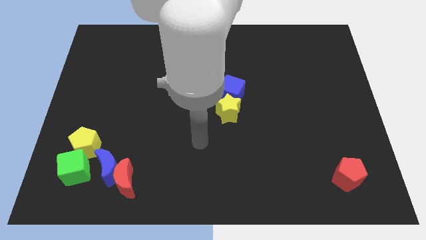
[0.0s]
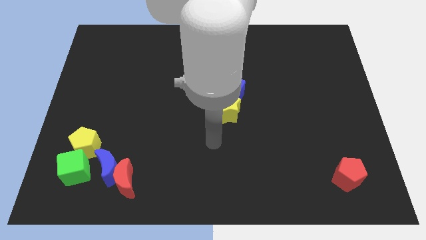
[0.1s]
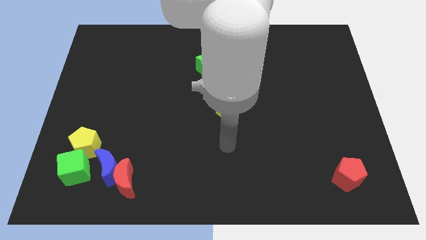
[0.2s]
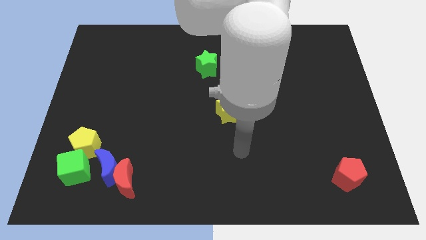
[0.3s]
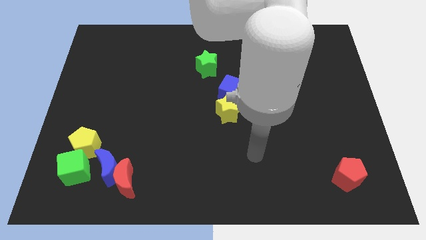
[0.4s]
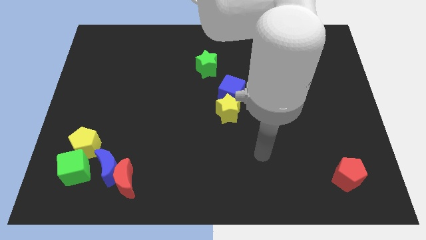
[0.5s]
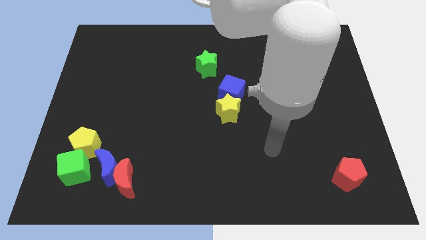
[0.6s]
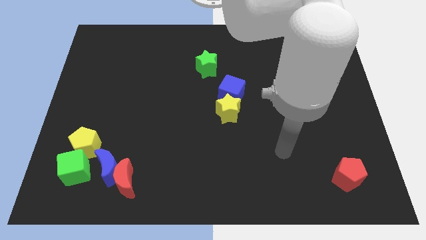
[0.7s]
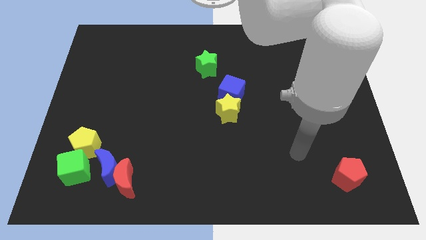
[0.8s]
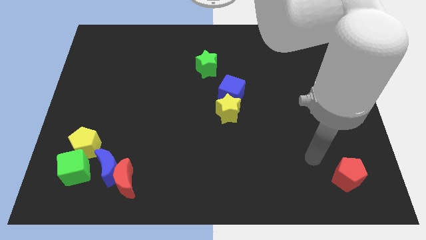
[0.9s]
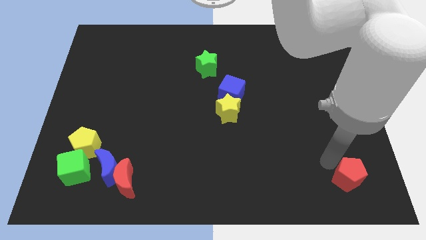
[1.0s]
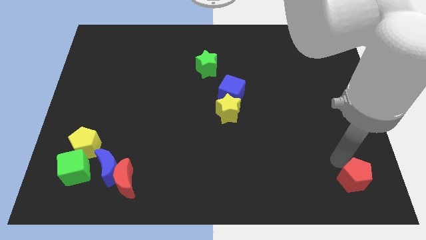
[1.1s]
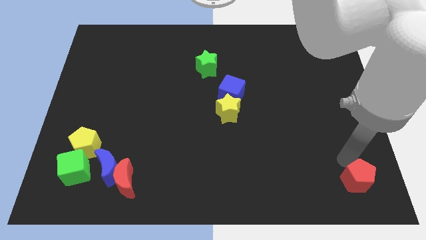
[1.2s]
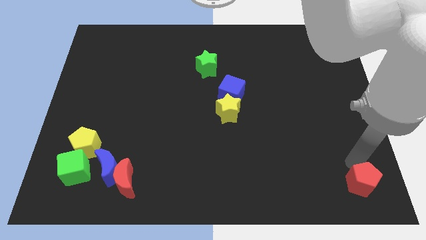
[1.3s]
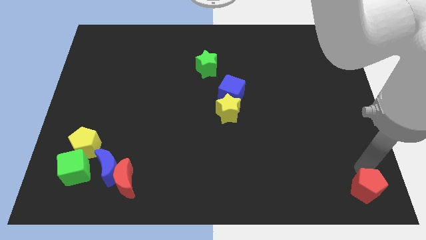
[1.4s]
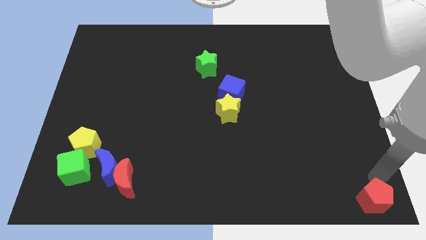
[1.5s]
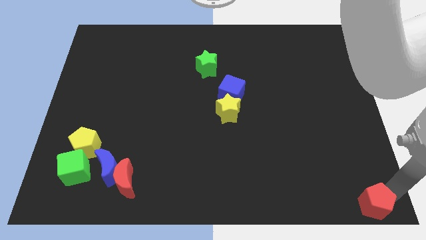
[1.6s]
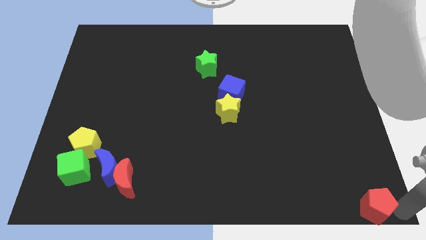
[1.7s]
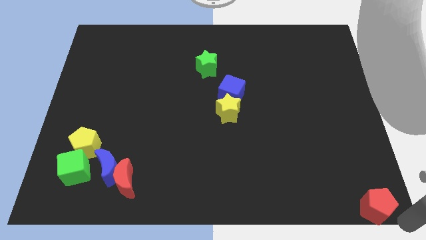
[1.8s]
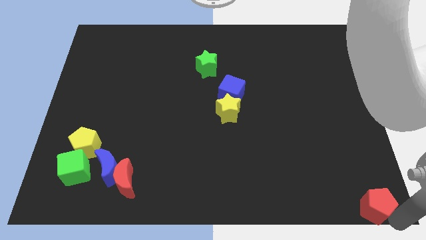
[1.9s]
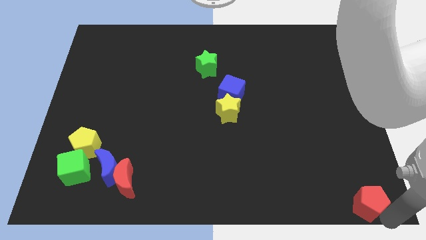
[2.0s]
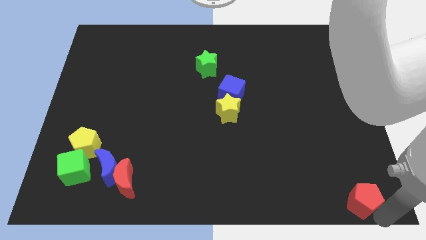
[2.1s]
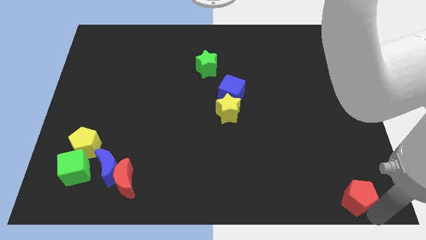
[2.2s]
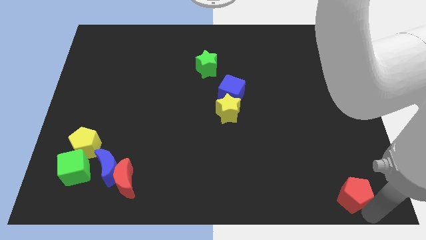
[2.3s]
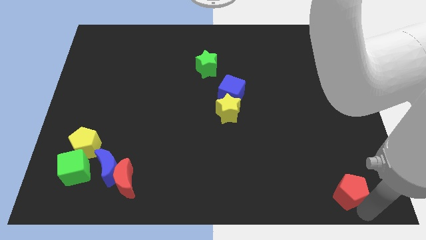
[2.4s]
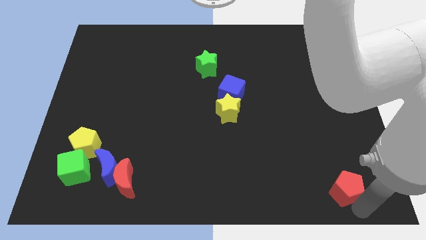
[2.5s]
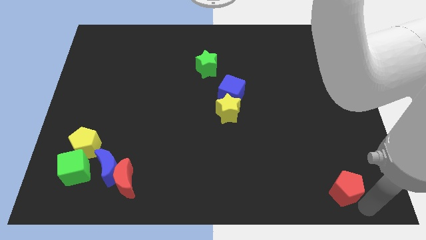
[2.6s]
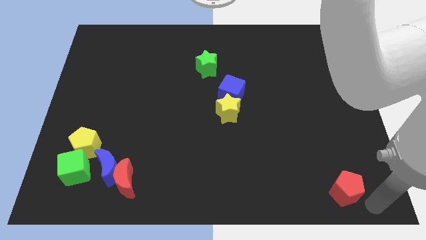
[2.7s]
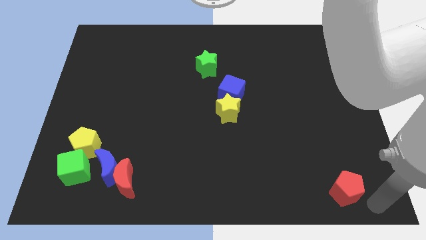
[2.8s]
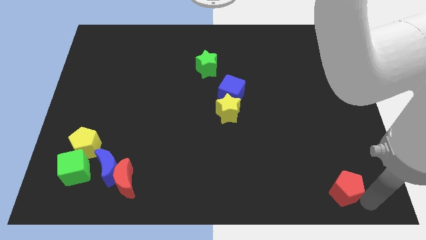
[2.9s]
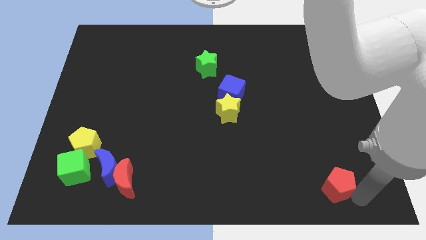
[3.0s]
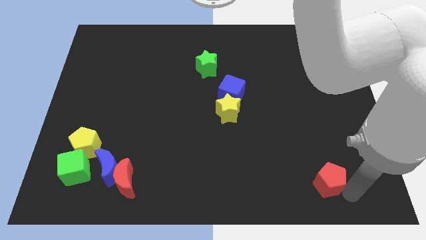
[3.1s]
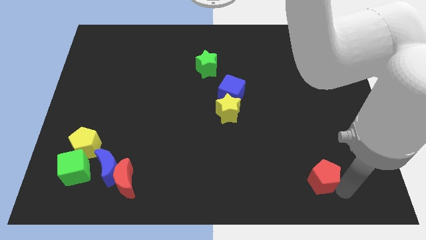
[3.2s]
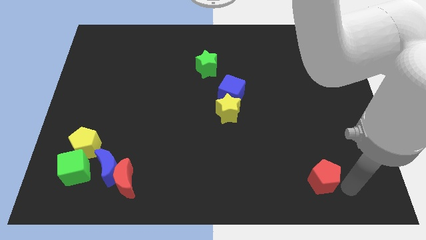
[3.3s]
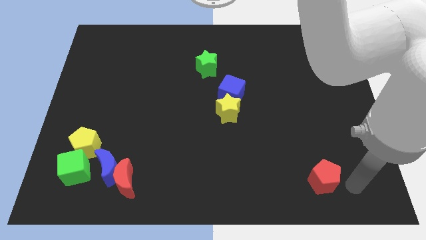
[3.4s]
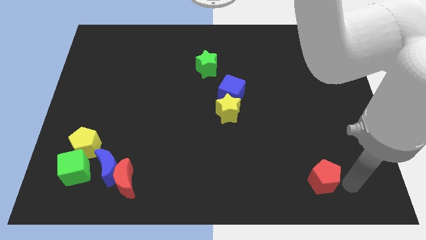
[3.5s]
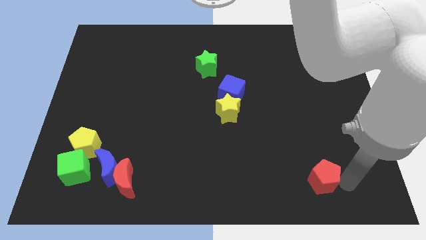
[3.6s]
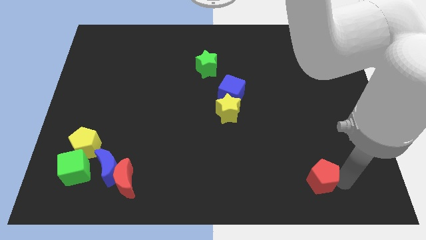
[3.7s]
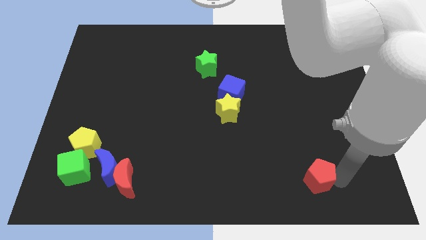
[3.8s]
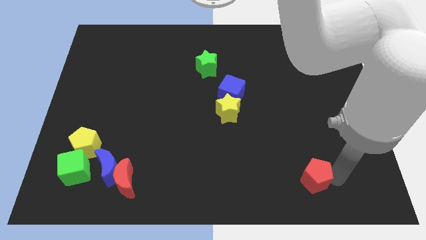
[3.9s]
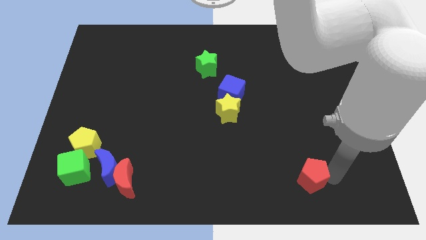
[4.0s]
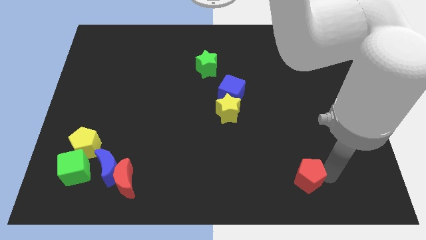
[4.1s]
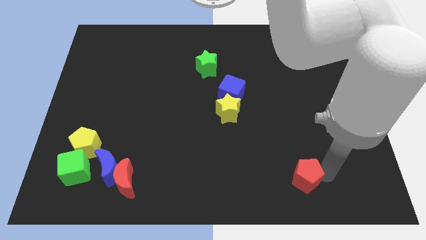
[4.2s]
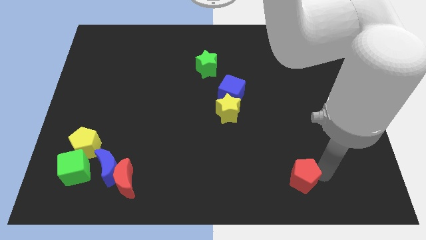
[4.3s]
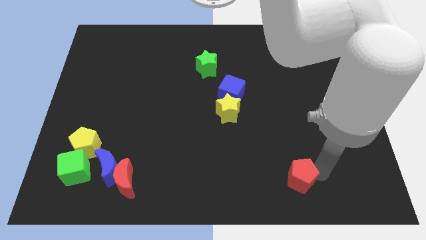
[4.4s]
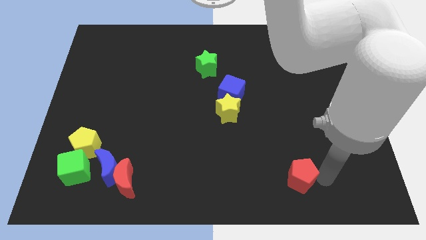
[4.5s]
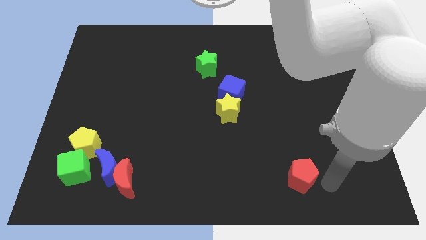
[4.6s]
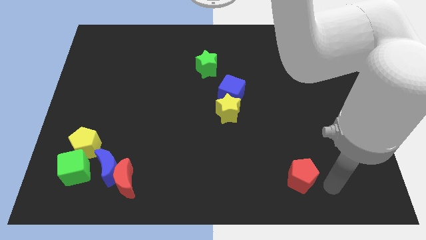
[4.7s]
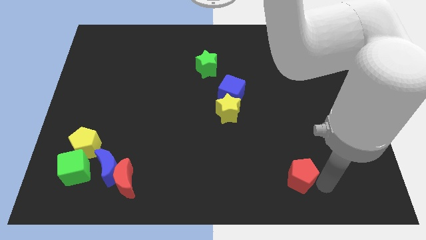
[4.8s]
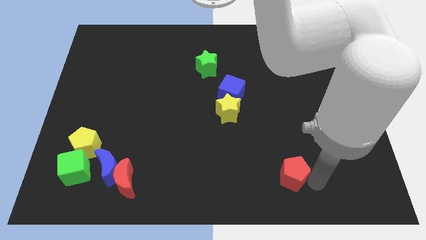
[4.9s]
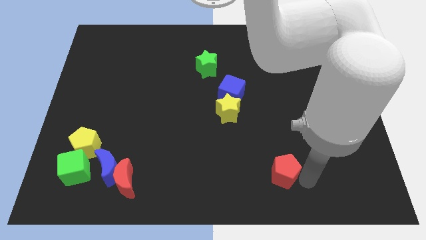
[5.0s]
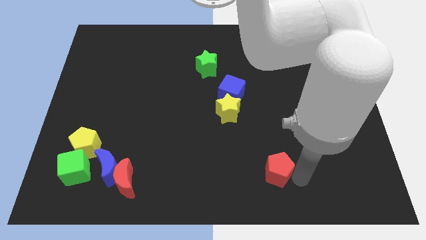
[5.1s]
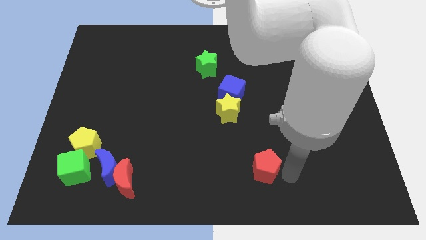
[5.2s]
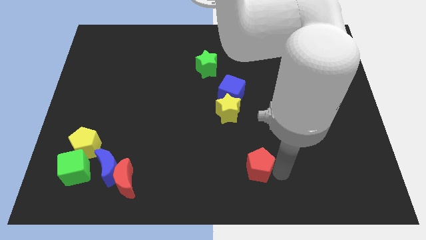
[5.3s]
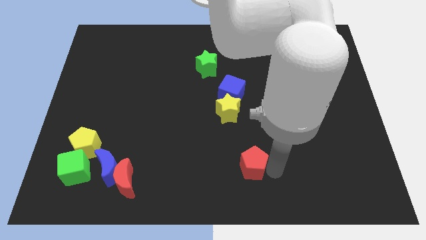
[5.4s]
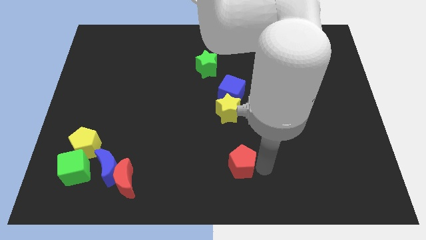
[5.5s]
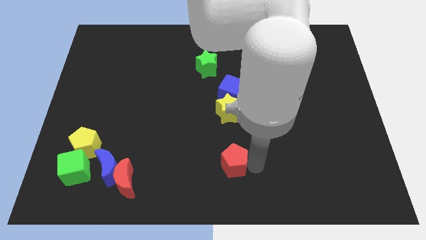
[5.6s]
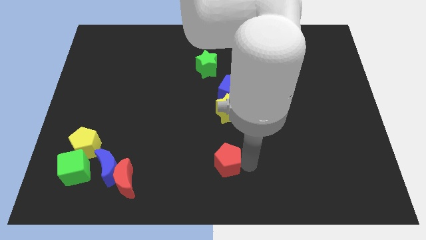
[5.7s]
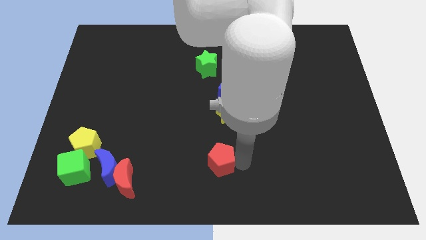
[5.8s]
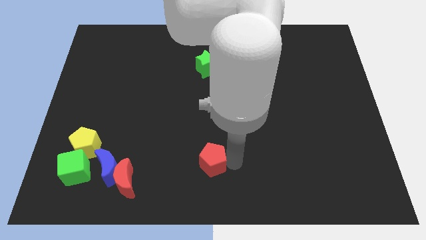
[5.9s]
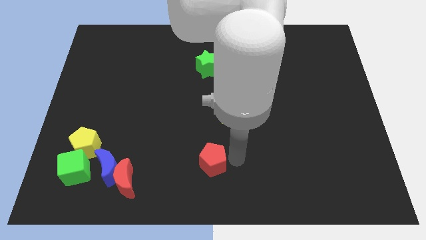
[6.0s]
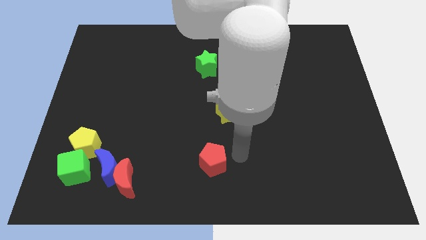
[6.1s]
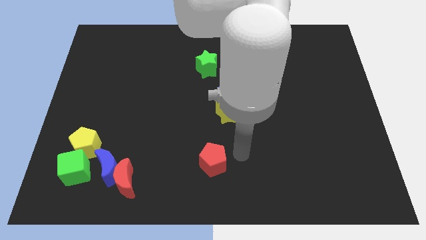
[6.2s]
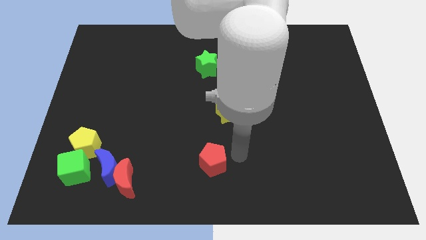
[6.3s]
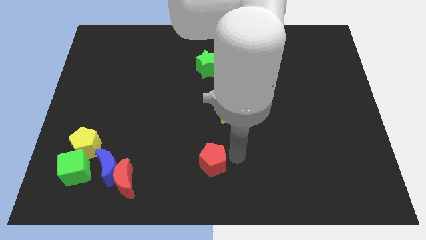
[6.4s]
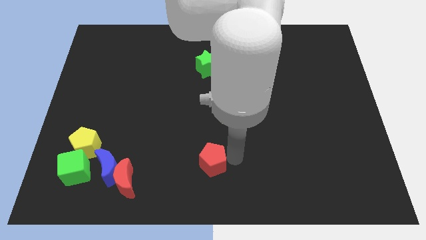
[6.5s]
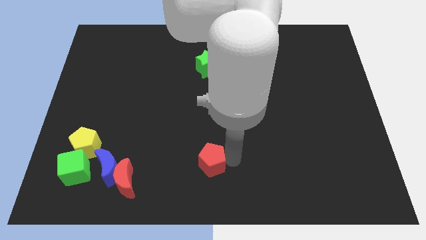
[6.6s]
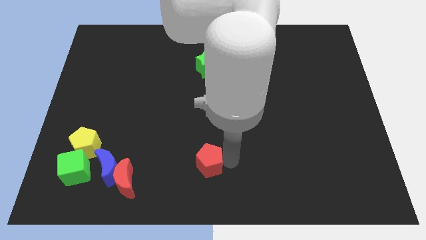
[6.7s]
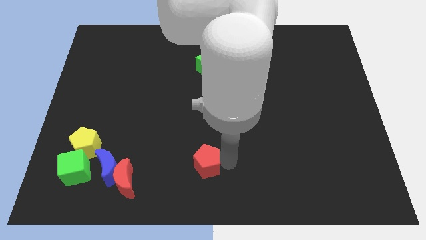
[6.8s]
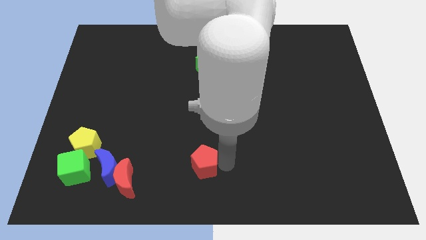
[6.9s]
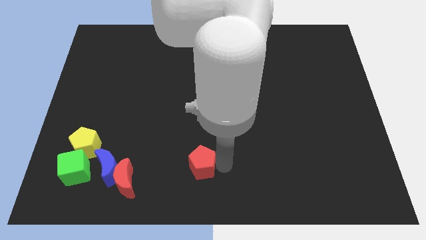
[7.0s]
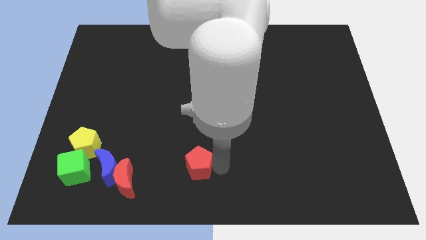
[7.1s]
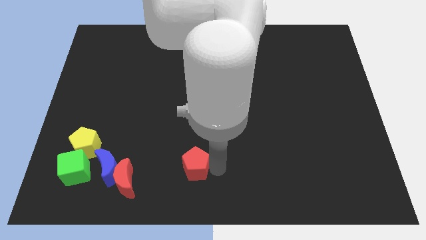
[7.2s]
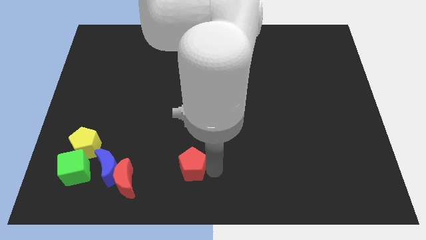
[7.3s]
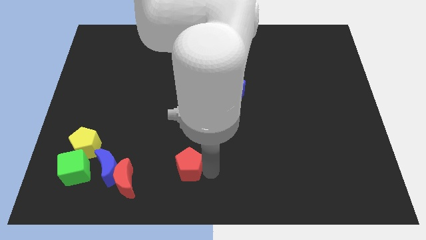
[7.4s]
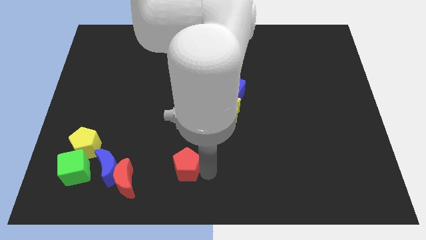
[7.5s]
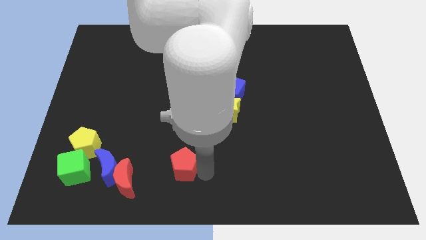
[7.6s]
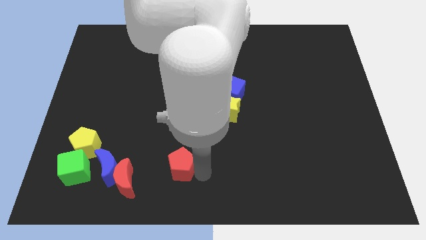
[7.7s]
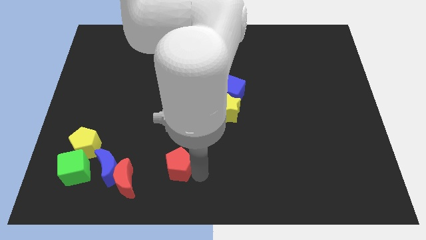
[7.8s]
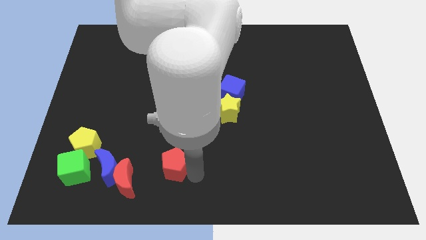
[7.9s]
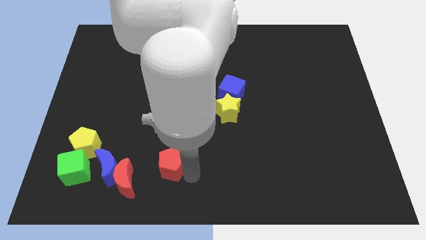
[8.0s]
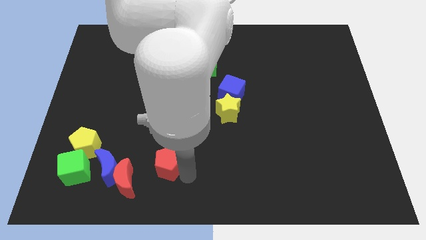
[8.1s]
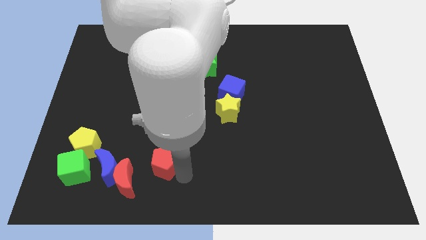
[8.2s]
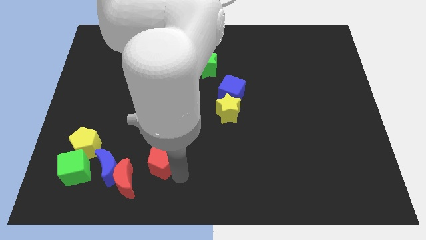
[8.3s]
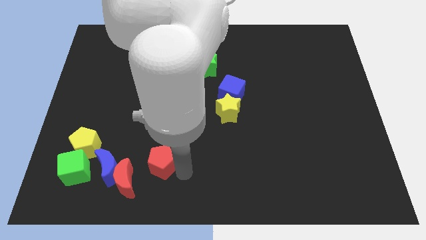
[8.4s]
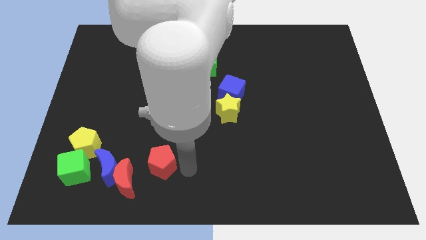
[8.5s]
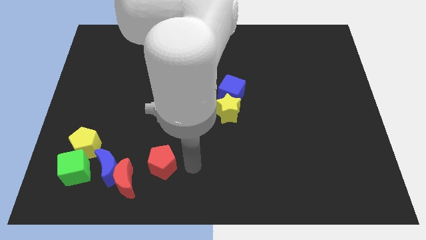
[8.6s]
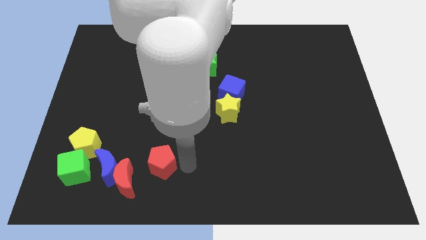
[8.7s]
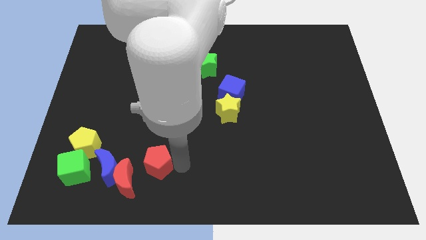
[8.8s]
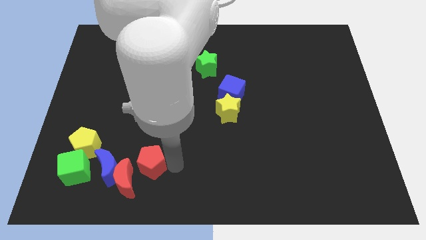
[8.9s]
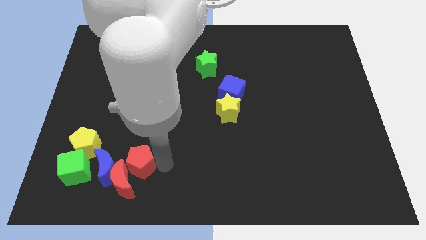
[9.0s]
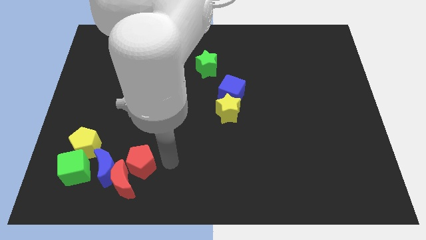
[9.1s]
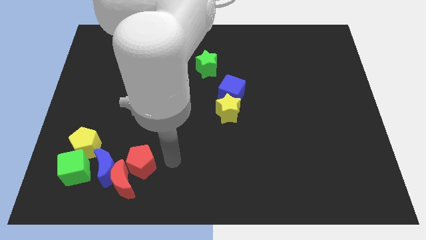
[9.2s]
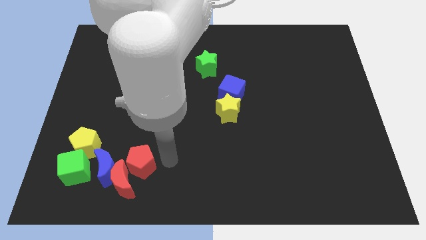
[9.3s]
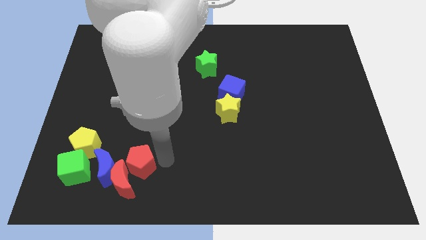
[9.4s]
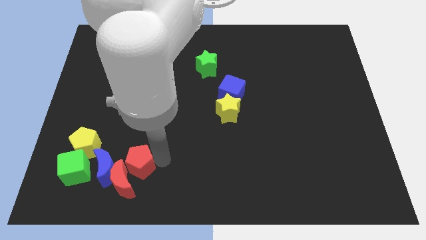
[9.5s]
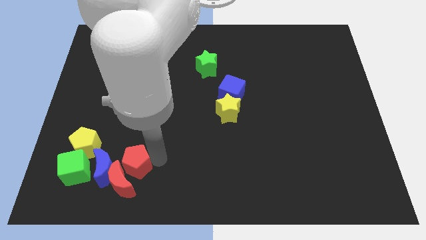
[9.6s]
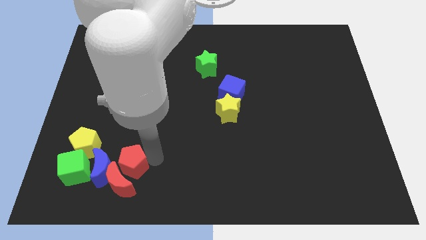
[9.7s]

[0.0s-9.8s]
move the red pentagon to the blue moon
